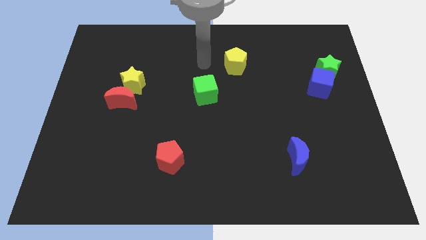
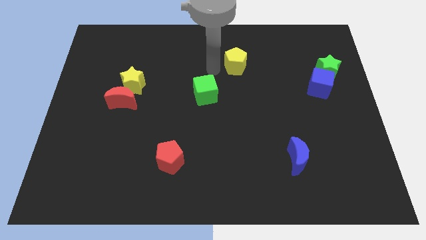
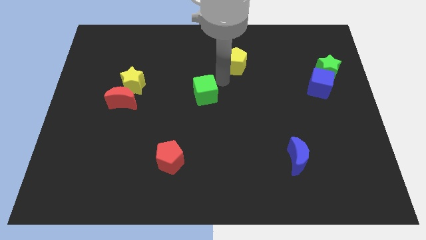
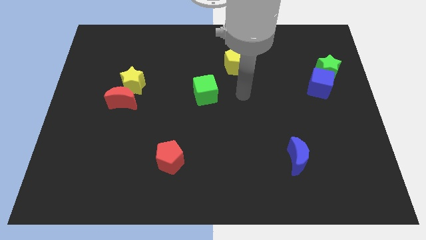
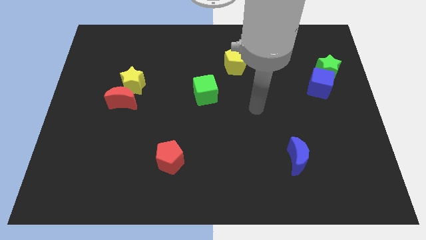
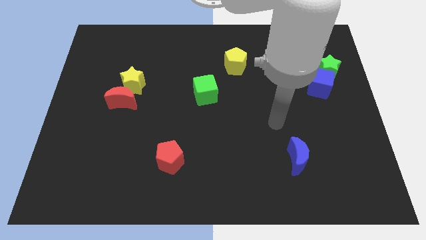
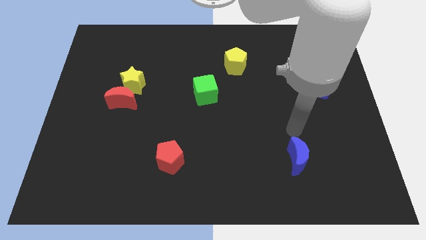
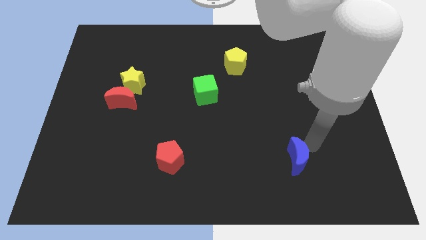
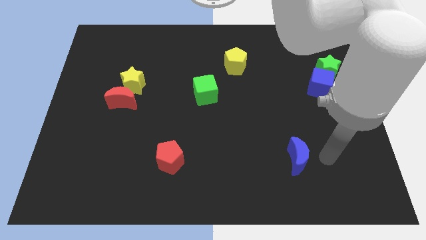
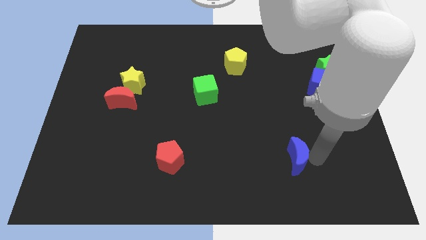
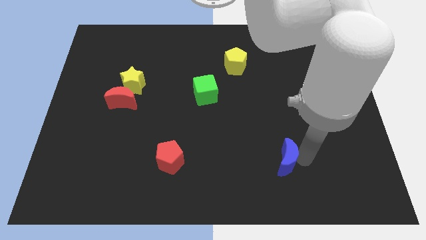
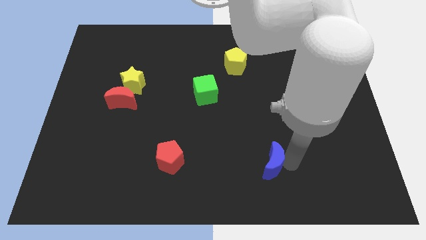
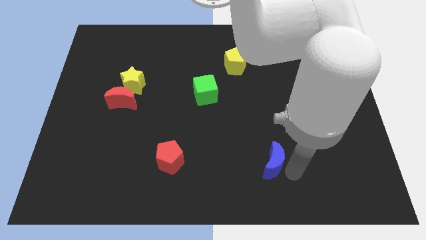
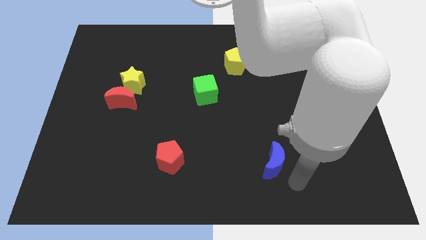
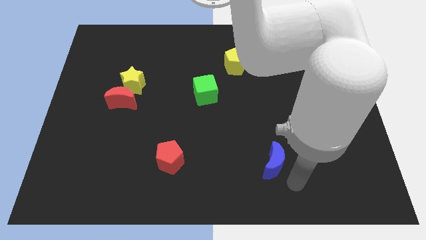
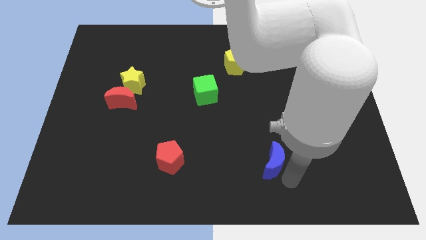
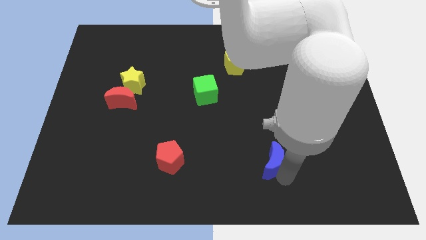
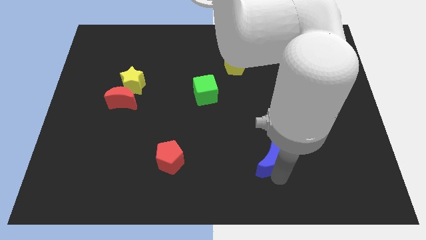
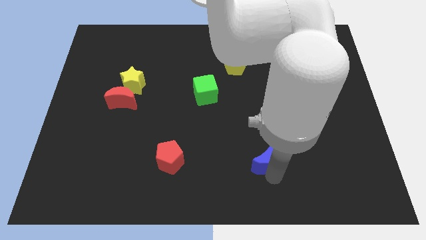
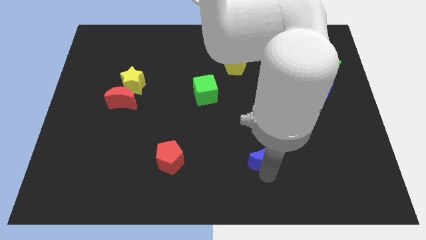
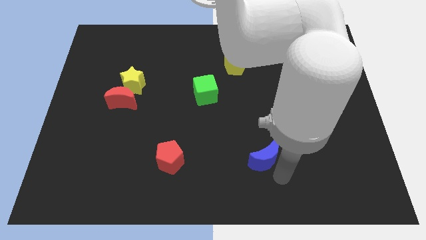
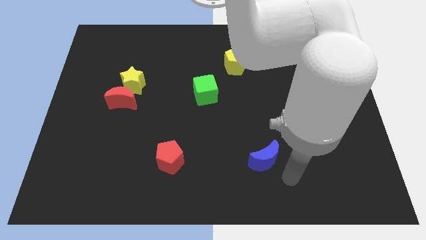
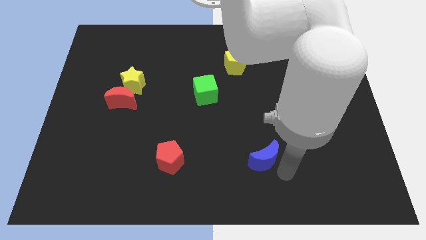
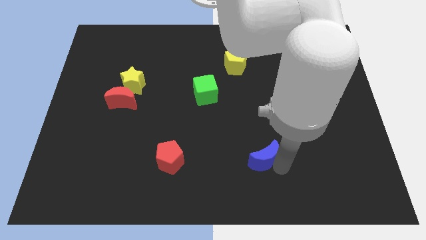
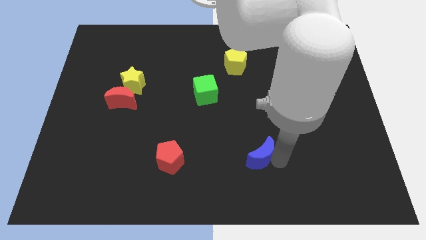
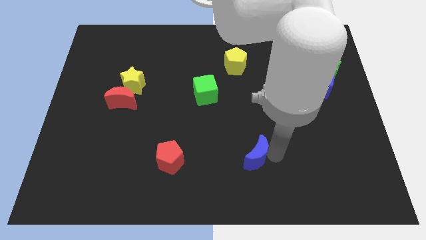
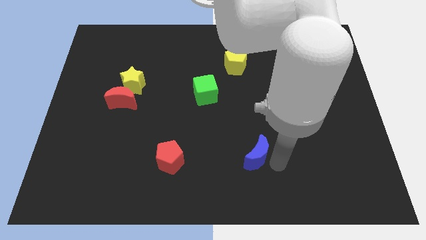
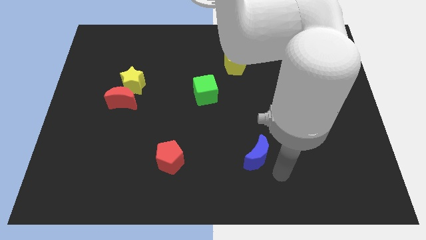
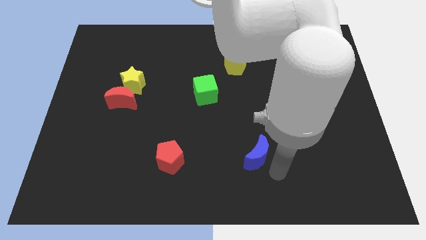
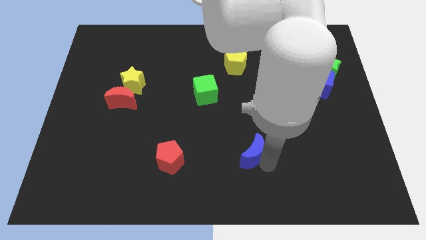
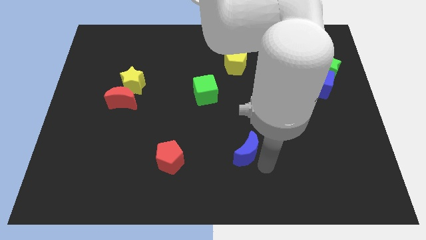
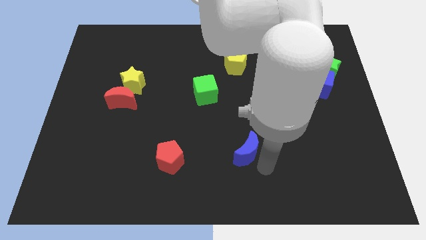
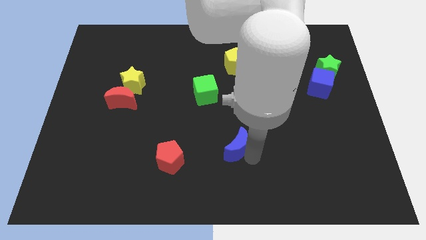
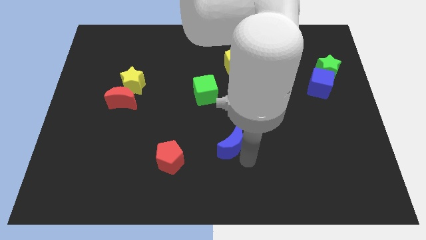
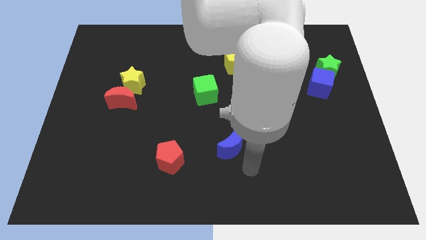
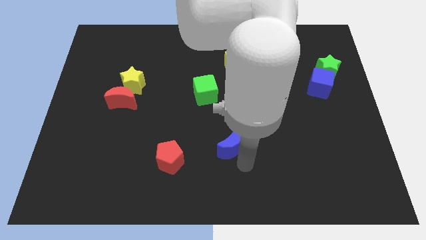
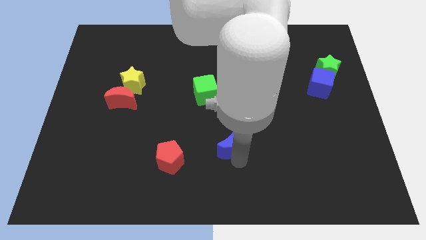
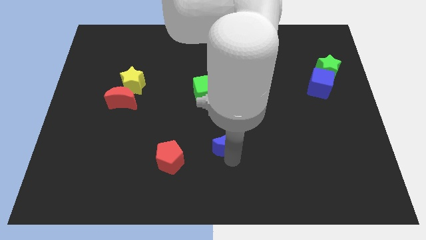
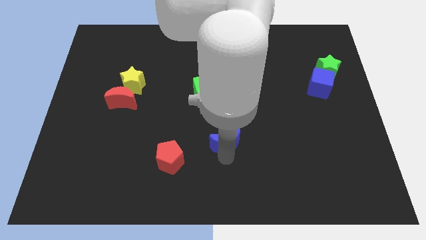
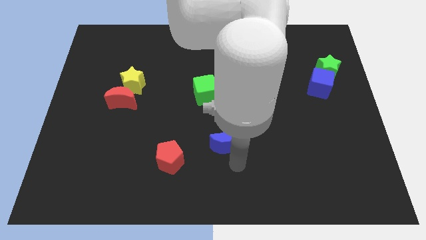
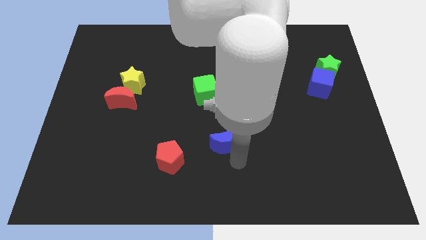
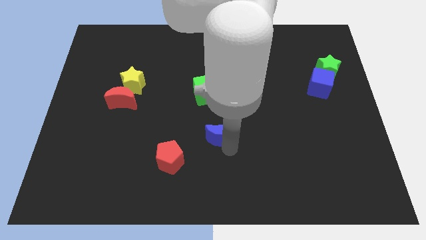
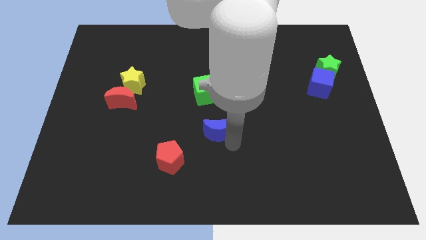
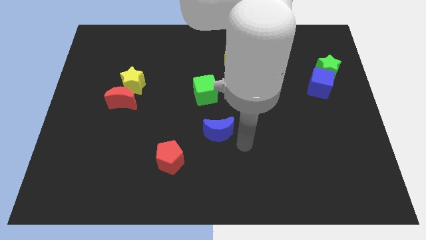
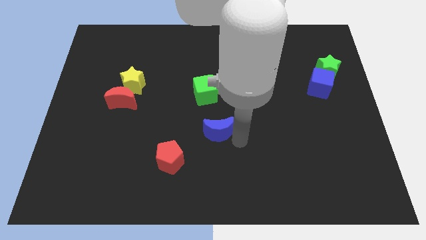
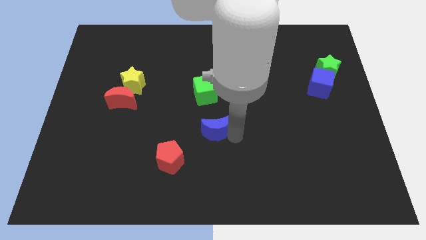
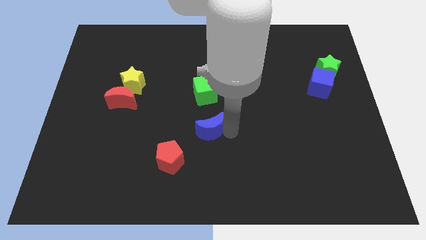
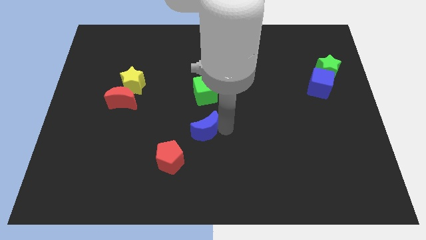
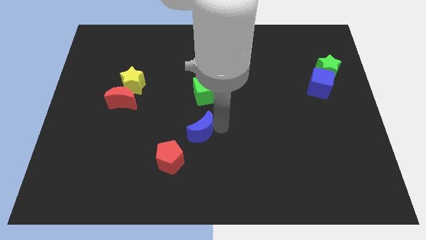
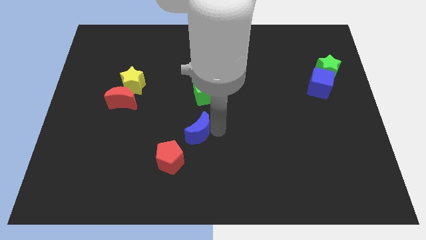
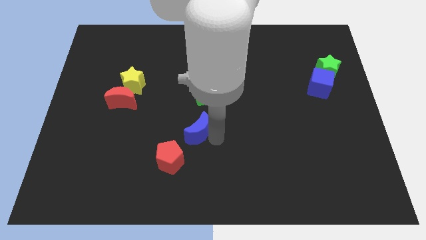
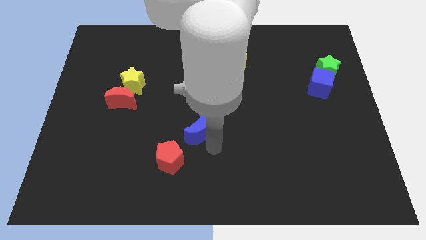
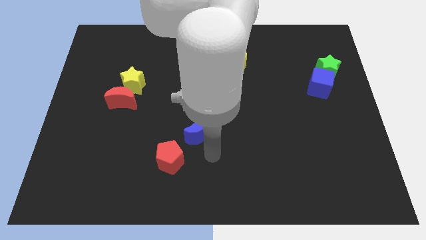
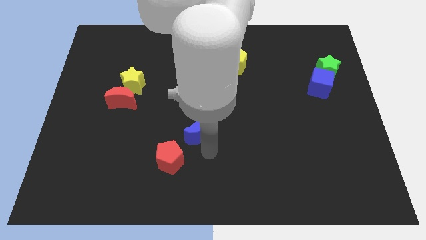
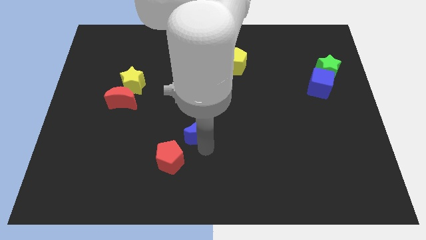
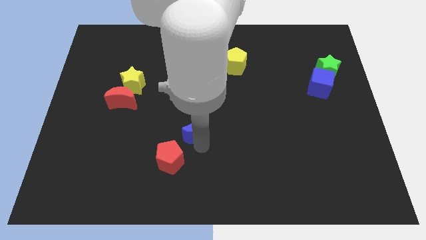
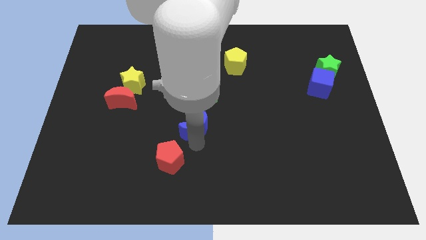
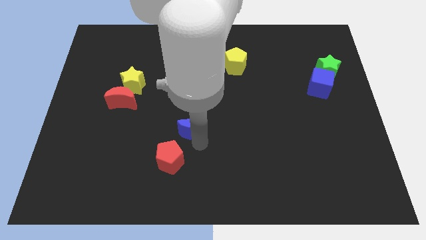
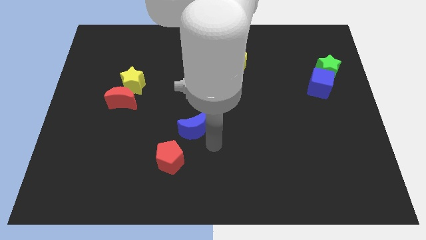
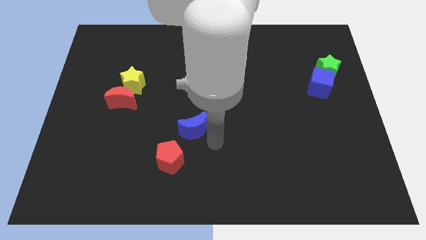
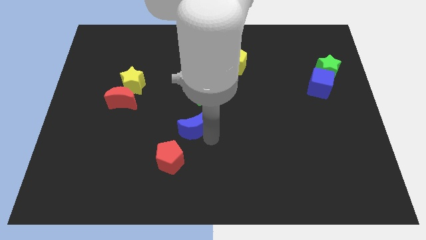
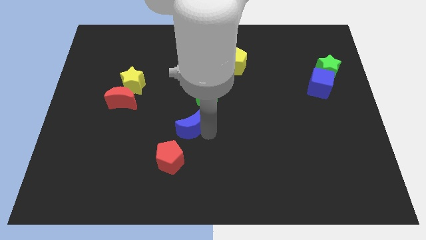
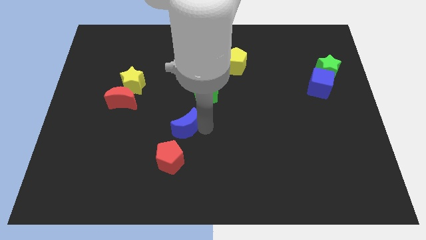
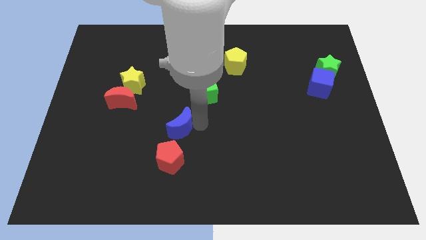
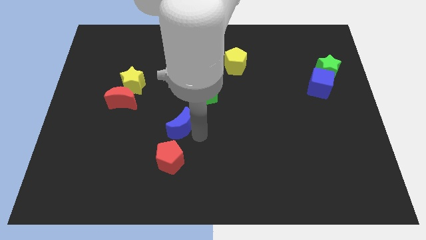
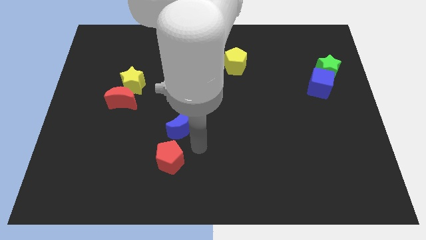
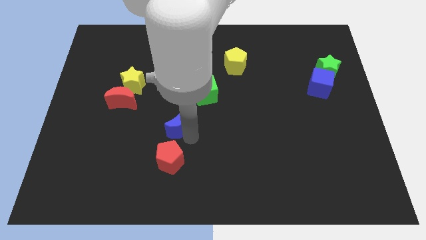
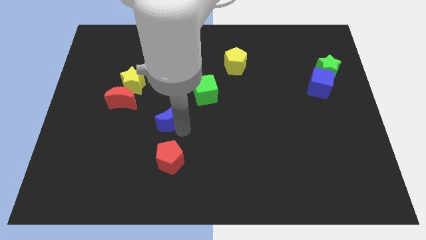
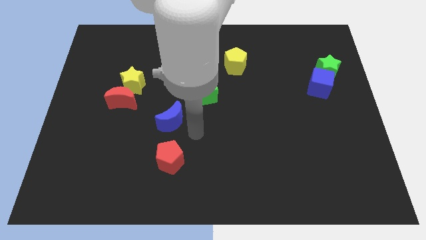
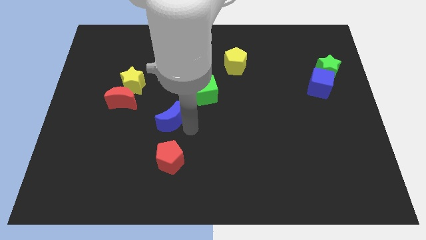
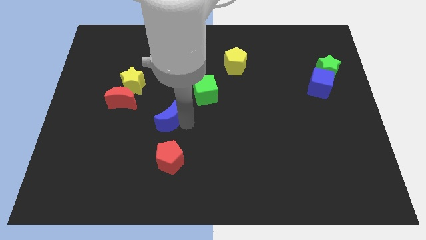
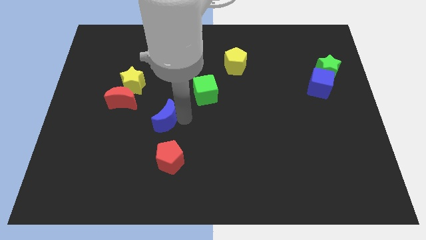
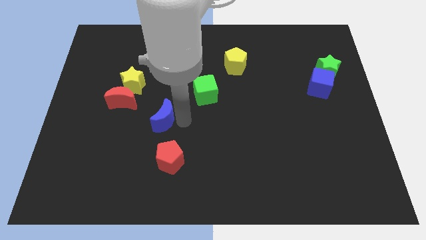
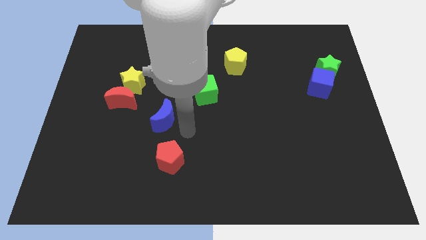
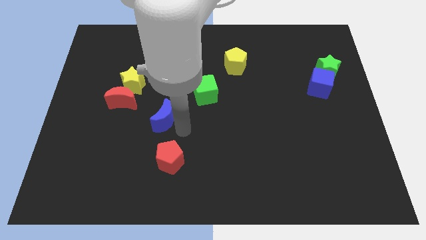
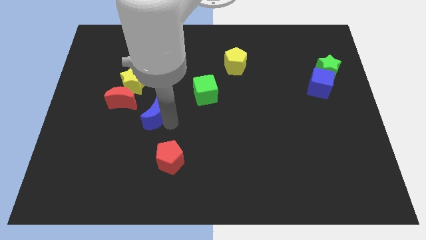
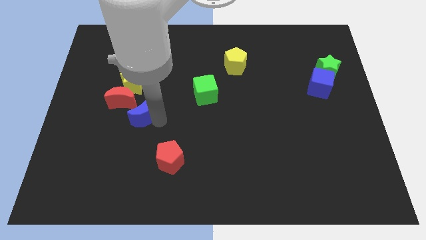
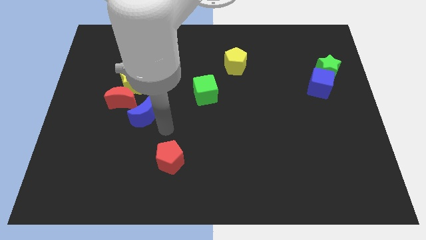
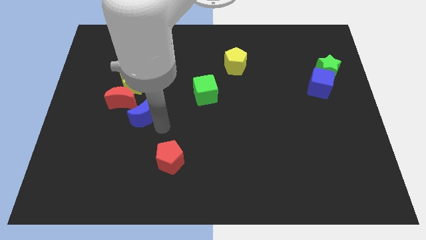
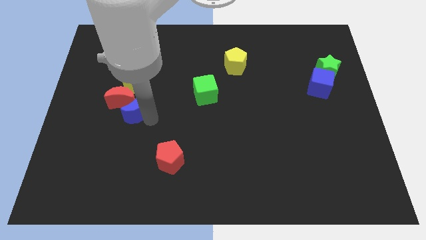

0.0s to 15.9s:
push the blue moon towards the red moon
